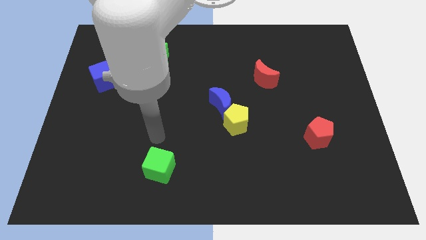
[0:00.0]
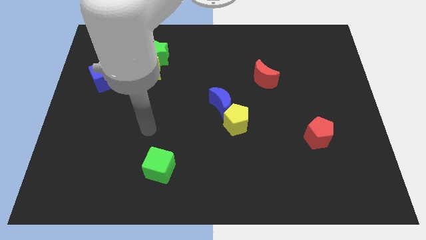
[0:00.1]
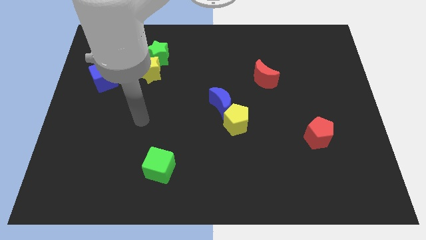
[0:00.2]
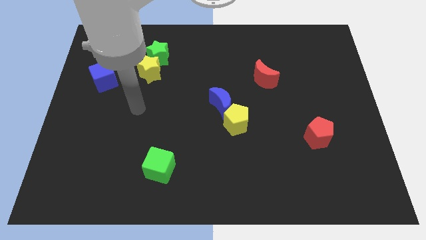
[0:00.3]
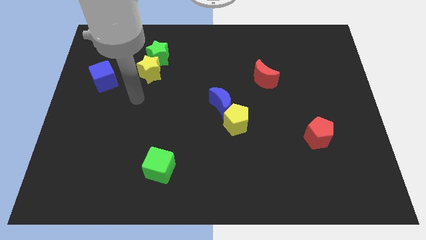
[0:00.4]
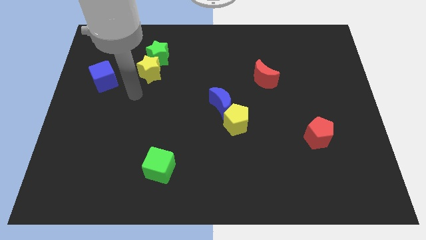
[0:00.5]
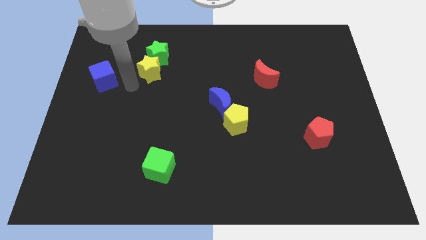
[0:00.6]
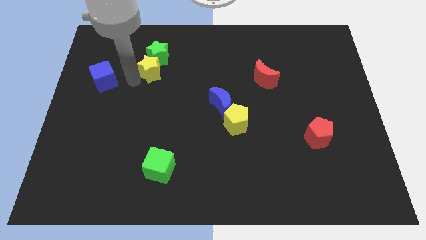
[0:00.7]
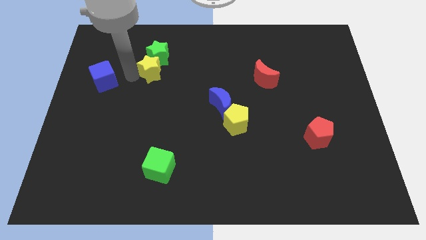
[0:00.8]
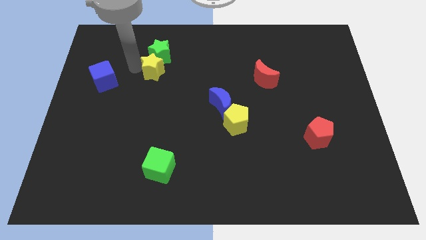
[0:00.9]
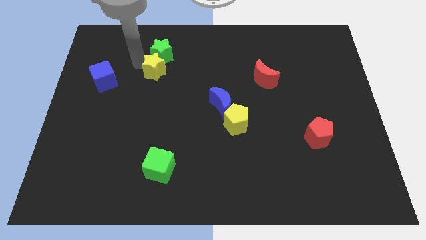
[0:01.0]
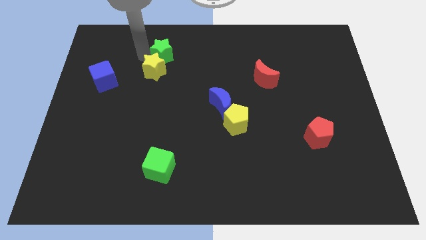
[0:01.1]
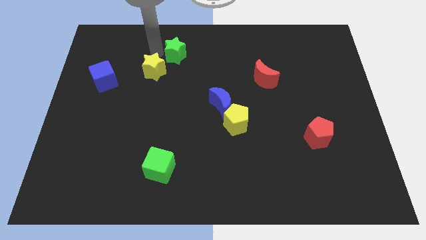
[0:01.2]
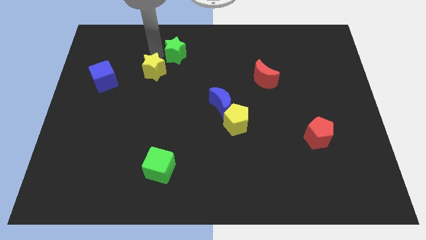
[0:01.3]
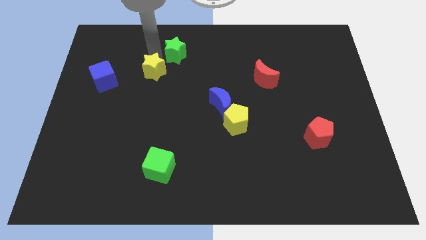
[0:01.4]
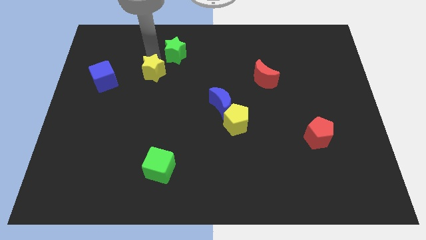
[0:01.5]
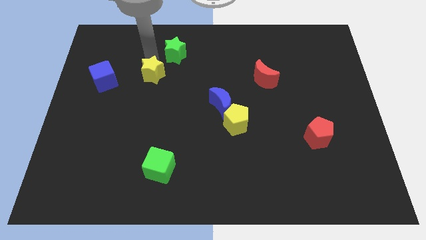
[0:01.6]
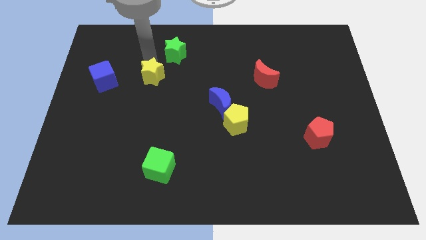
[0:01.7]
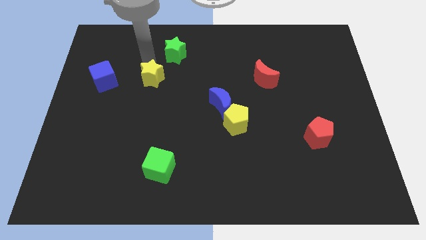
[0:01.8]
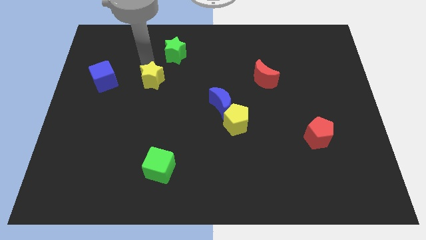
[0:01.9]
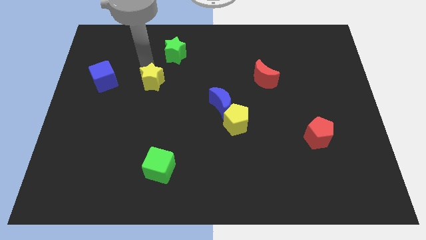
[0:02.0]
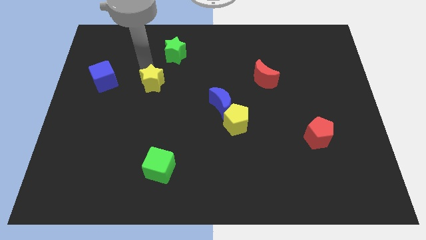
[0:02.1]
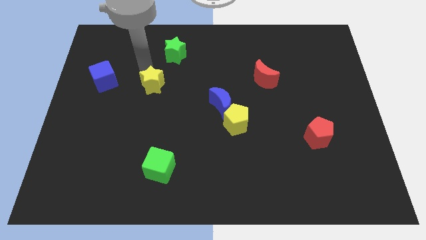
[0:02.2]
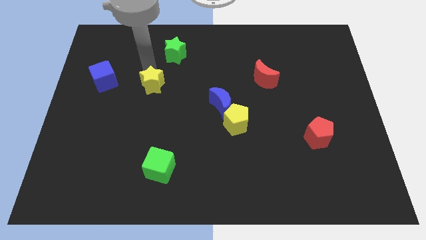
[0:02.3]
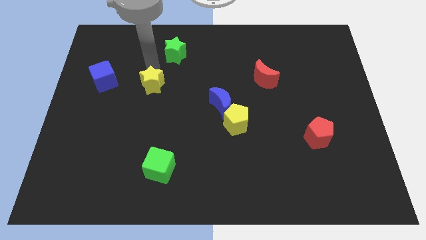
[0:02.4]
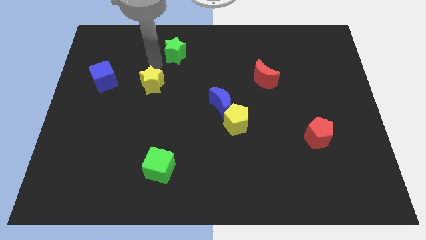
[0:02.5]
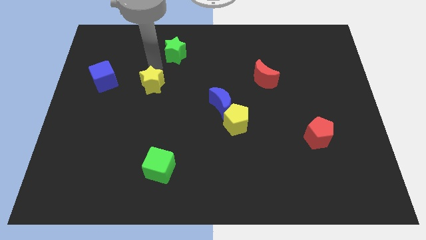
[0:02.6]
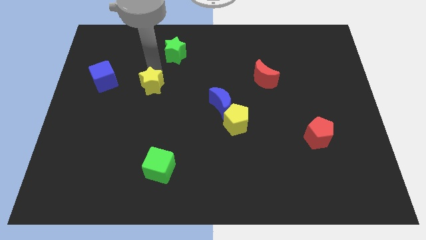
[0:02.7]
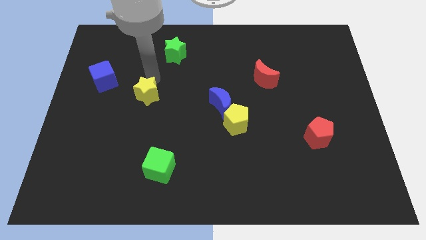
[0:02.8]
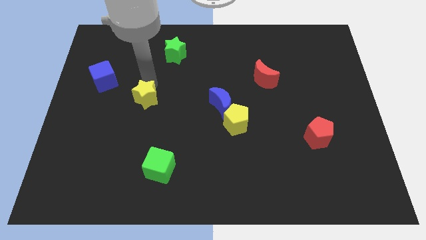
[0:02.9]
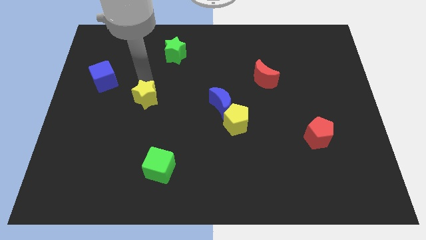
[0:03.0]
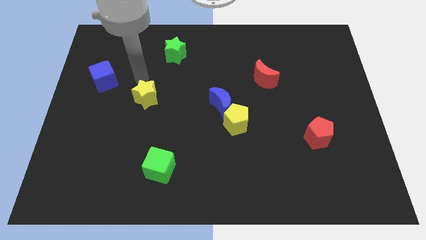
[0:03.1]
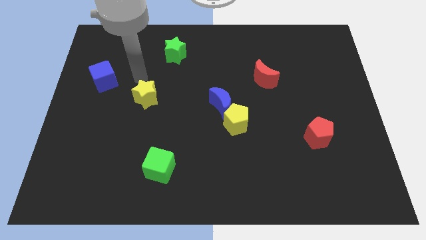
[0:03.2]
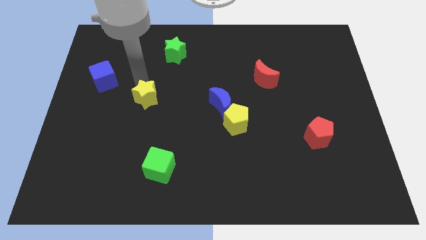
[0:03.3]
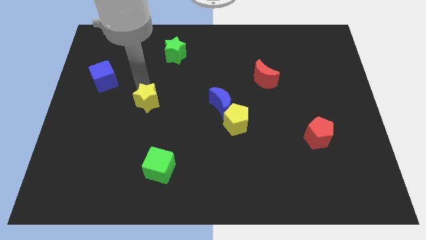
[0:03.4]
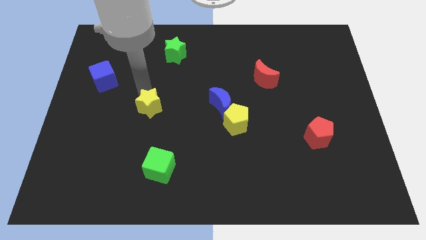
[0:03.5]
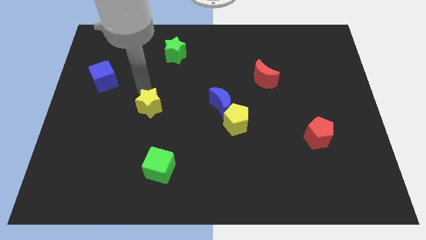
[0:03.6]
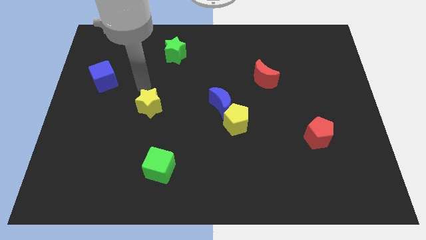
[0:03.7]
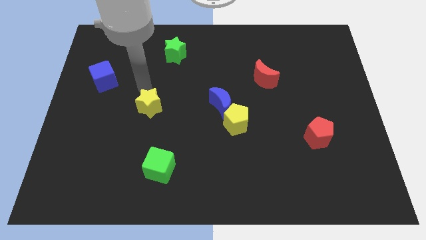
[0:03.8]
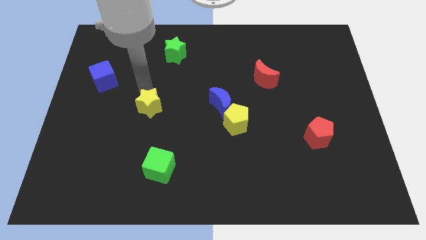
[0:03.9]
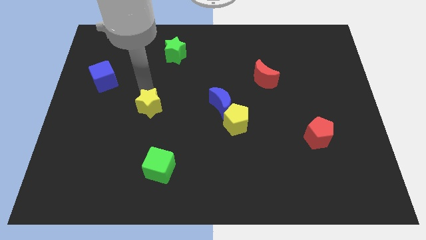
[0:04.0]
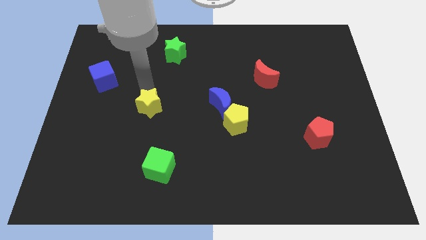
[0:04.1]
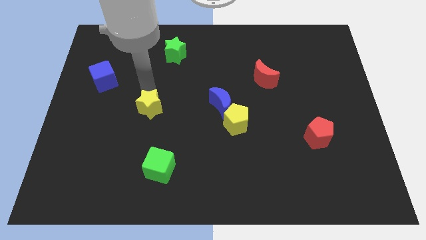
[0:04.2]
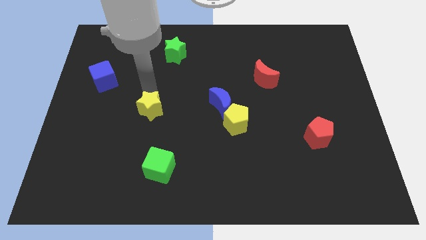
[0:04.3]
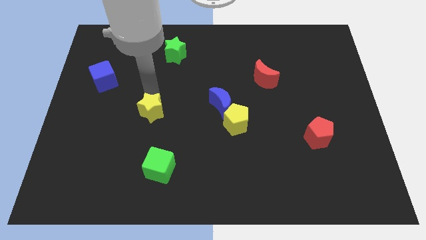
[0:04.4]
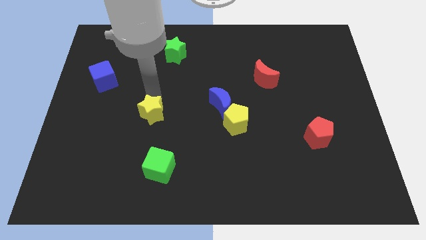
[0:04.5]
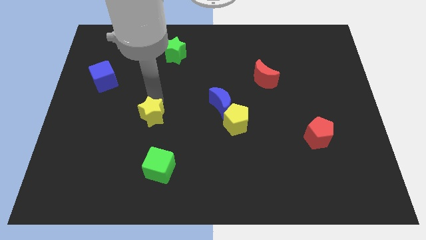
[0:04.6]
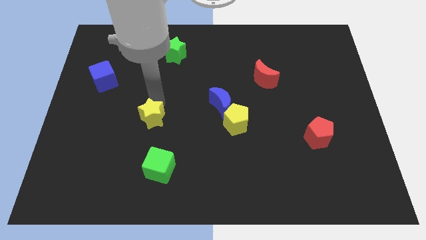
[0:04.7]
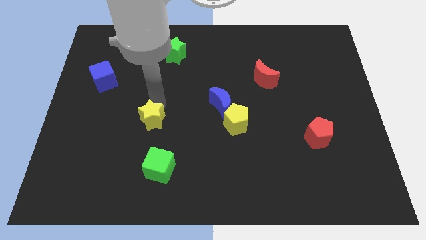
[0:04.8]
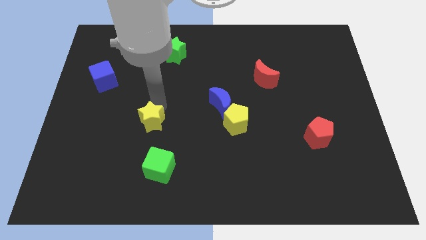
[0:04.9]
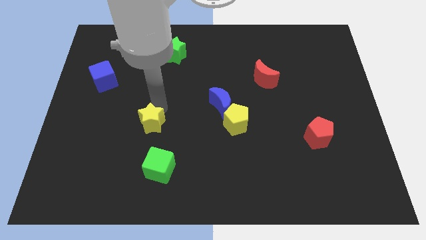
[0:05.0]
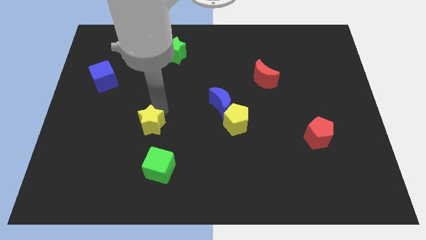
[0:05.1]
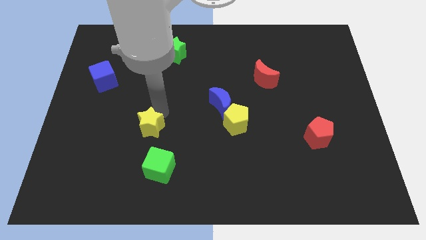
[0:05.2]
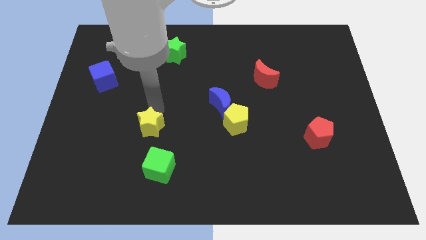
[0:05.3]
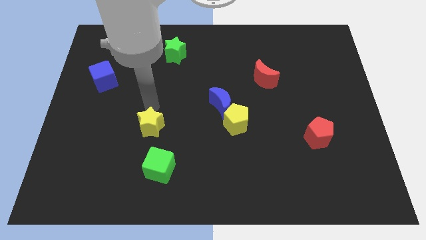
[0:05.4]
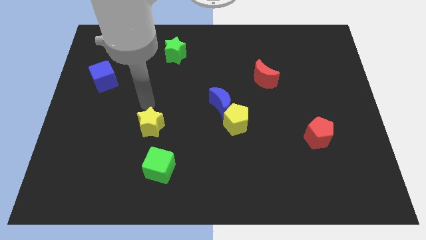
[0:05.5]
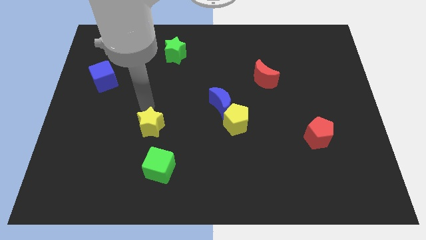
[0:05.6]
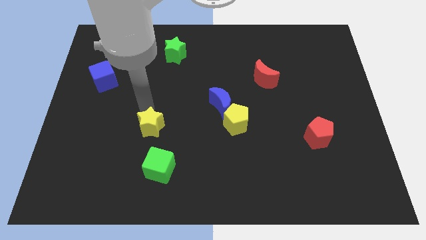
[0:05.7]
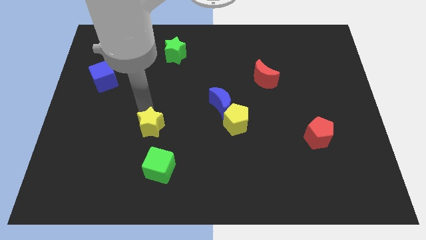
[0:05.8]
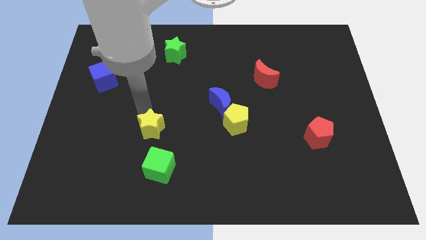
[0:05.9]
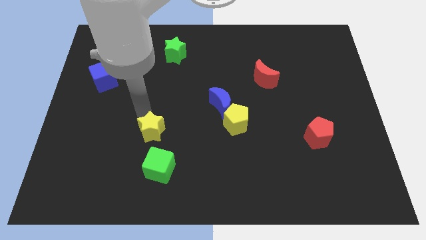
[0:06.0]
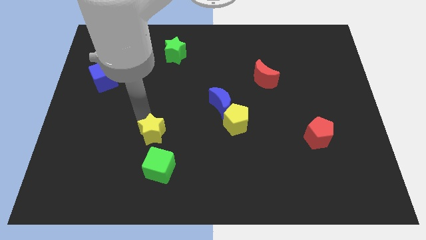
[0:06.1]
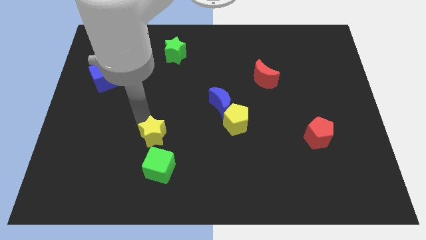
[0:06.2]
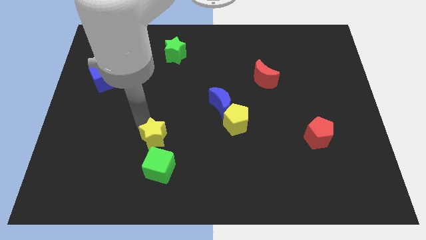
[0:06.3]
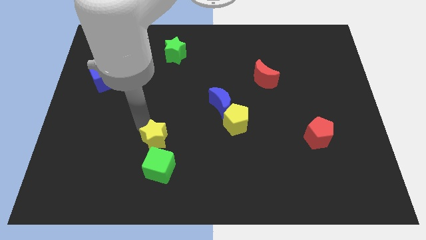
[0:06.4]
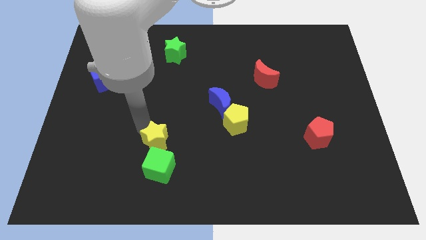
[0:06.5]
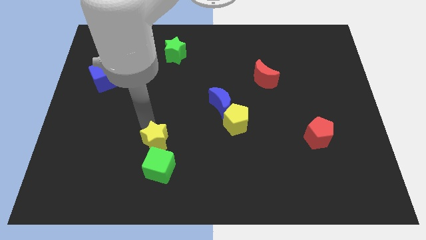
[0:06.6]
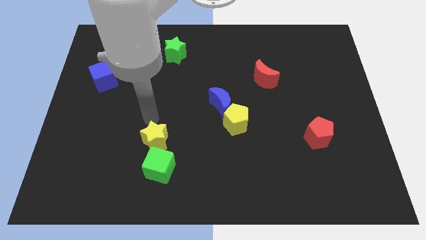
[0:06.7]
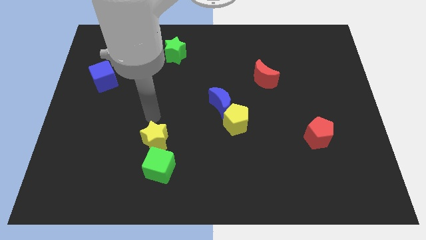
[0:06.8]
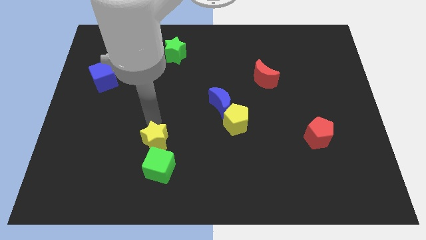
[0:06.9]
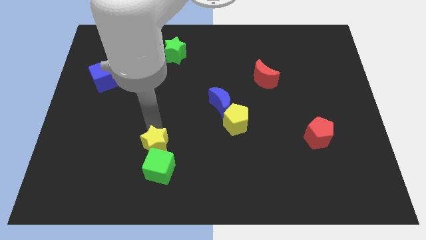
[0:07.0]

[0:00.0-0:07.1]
slide the yellow star towards the green cube
